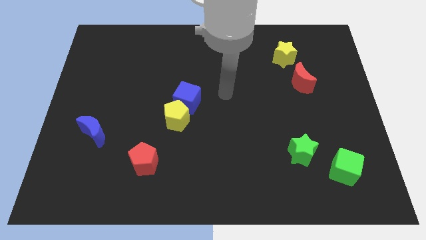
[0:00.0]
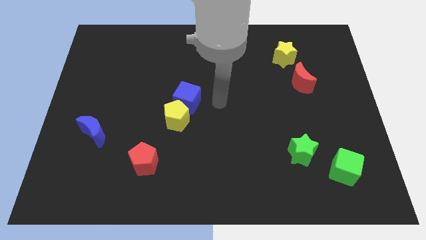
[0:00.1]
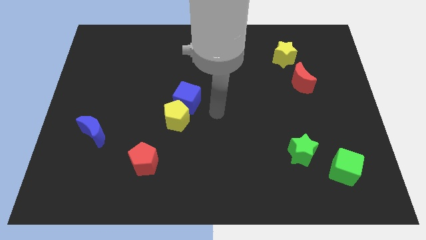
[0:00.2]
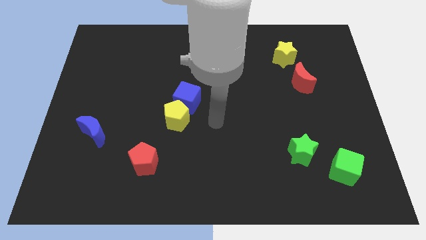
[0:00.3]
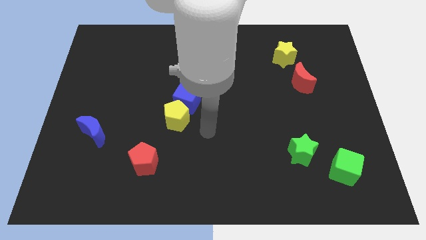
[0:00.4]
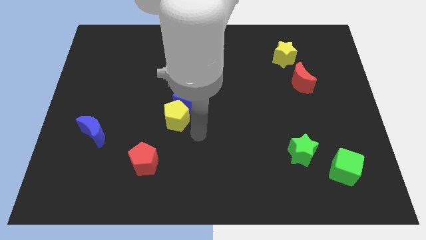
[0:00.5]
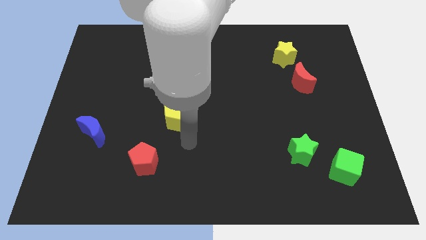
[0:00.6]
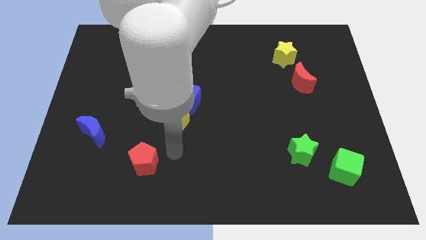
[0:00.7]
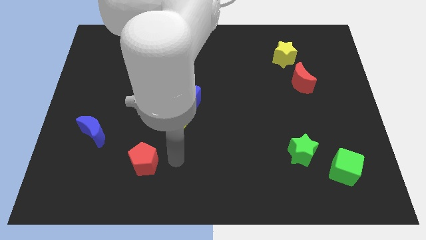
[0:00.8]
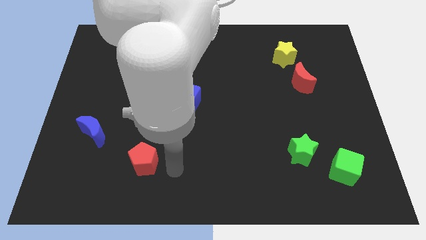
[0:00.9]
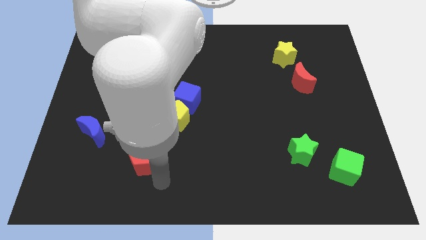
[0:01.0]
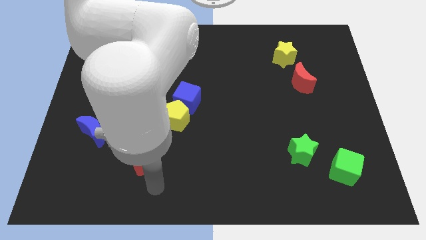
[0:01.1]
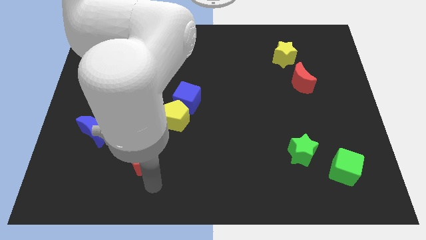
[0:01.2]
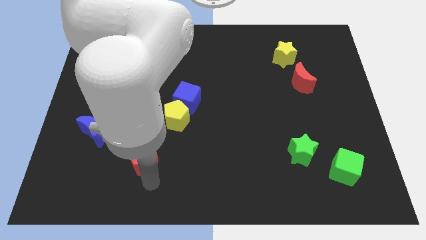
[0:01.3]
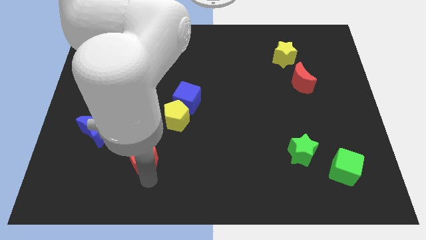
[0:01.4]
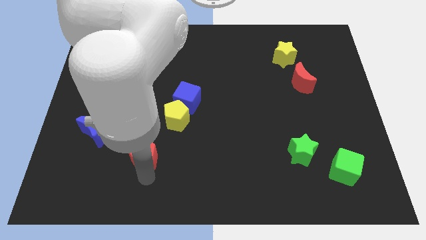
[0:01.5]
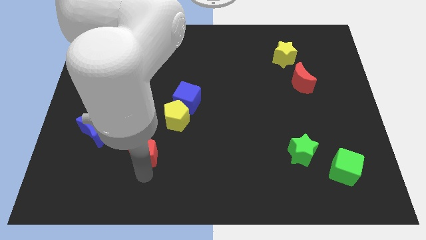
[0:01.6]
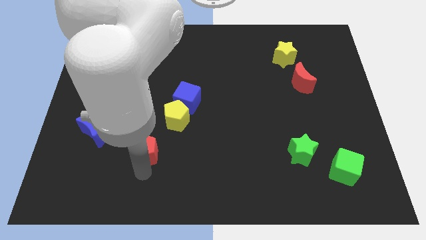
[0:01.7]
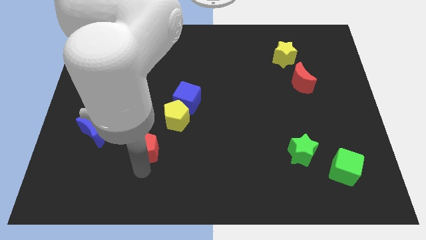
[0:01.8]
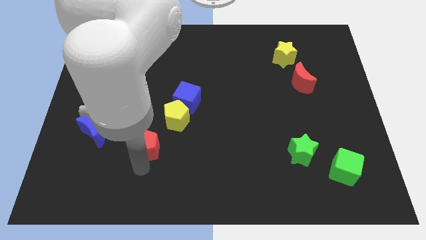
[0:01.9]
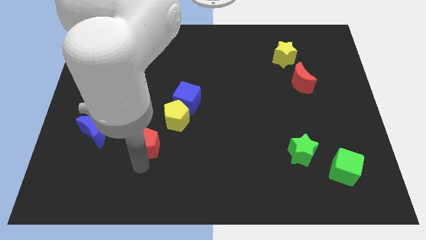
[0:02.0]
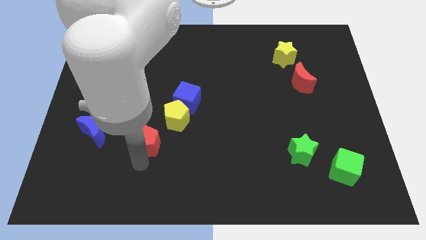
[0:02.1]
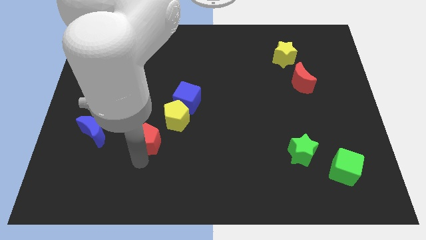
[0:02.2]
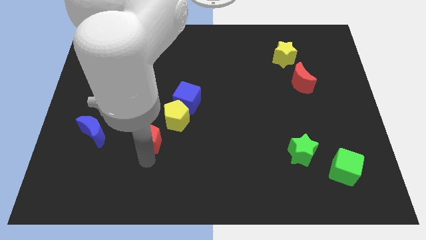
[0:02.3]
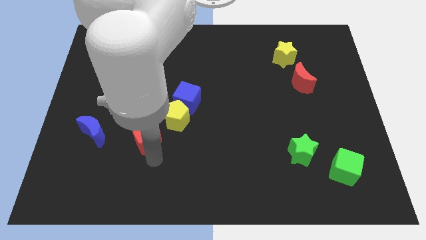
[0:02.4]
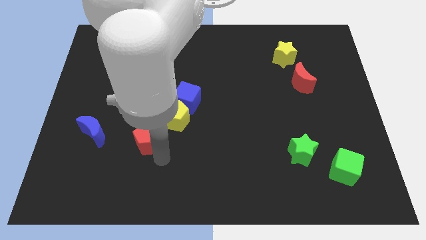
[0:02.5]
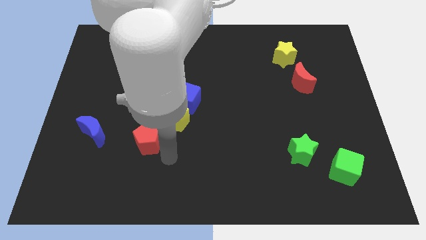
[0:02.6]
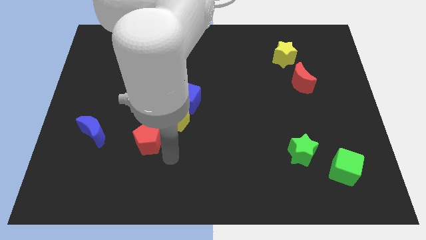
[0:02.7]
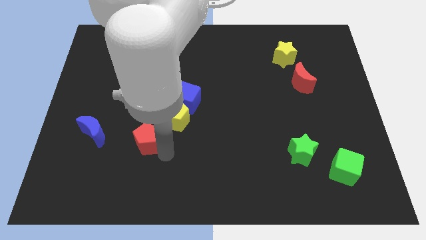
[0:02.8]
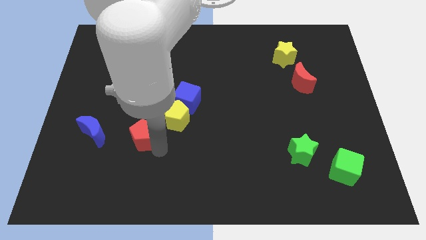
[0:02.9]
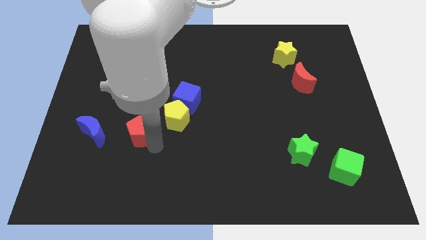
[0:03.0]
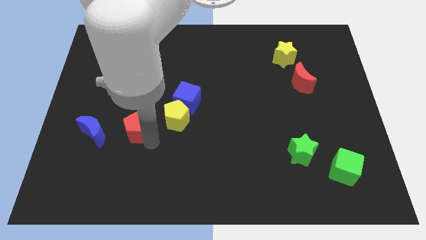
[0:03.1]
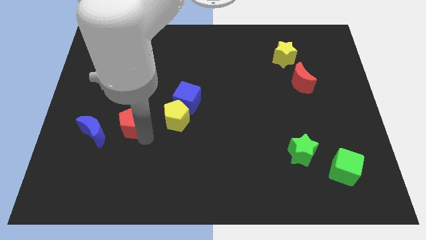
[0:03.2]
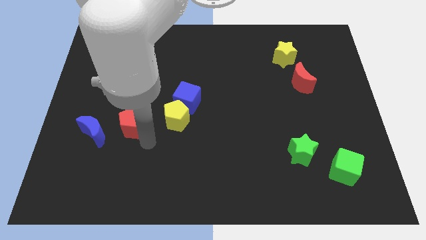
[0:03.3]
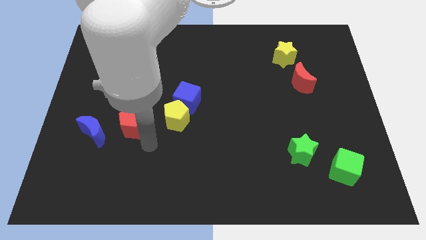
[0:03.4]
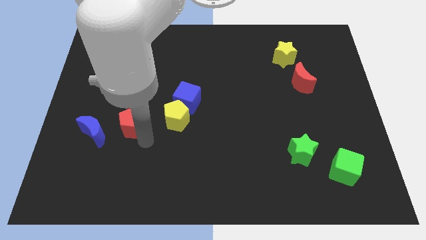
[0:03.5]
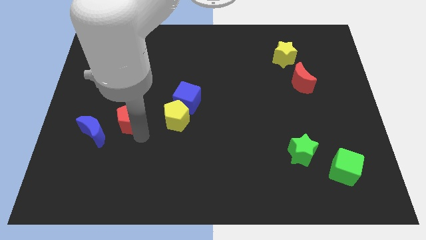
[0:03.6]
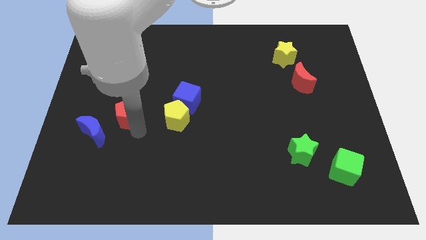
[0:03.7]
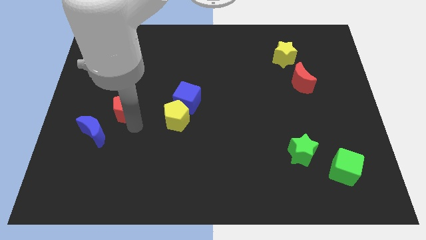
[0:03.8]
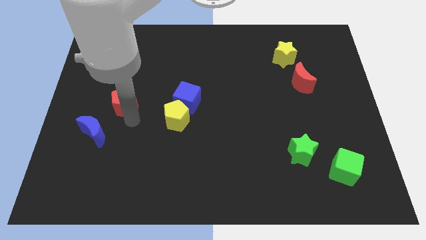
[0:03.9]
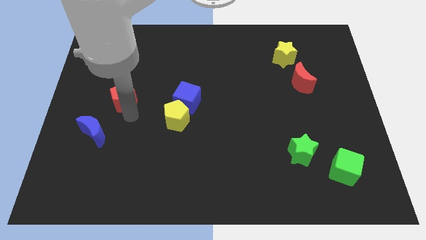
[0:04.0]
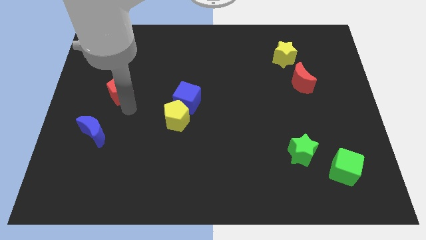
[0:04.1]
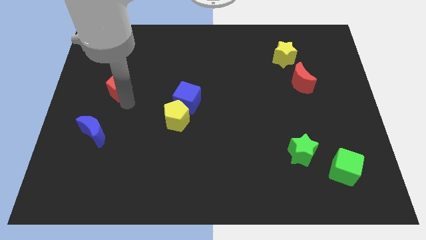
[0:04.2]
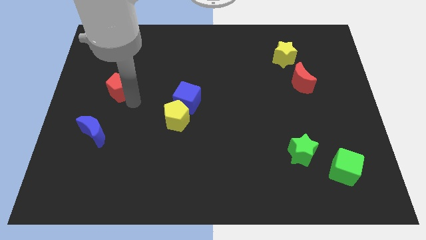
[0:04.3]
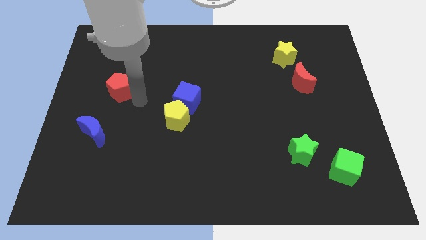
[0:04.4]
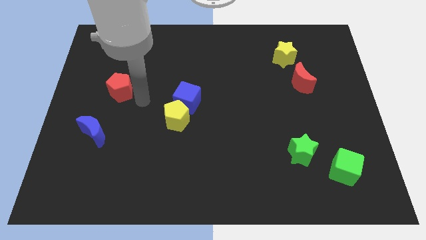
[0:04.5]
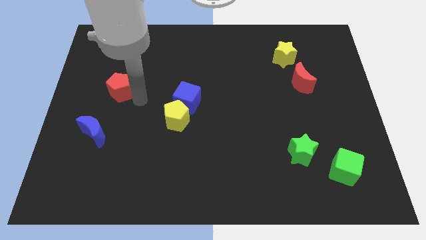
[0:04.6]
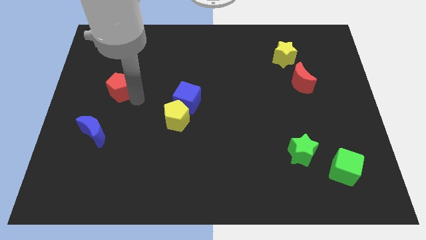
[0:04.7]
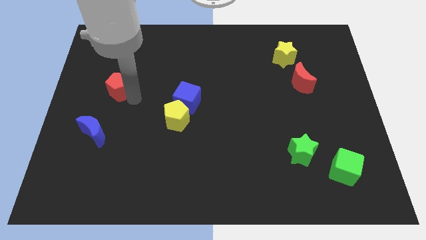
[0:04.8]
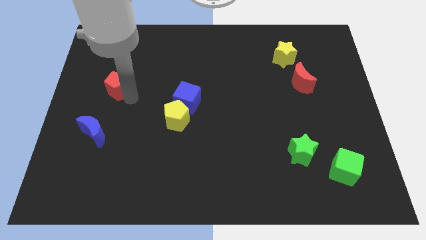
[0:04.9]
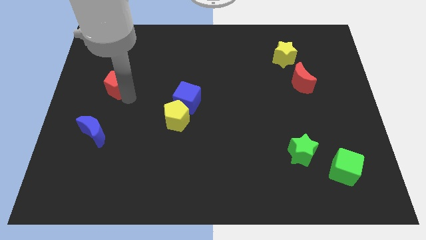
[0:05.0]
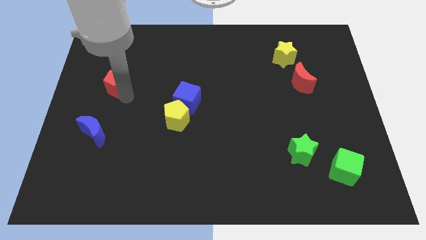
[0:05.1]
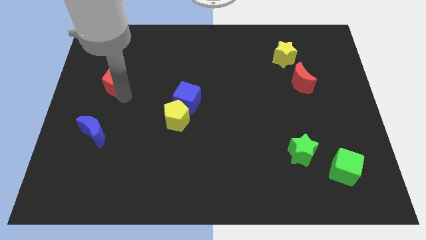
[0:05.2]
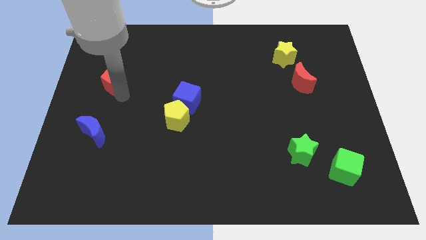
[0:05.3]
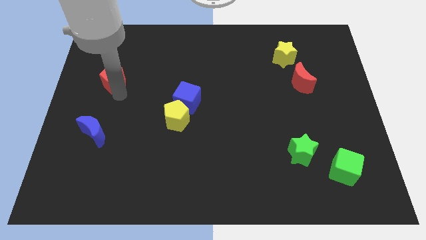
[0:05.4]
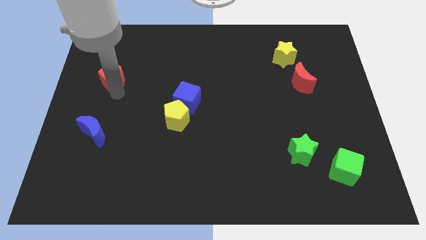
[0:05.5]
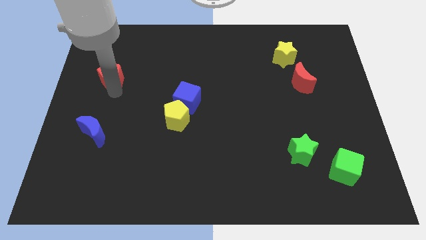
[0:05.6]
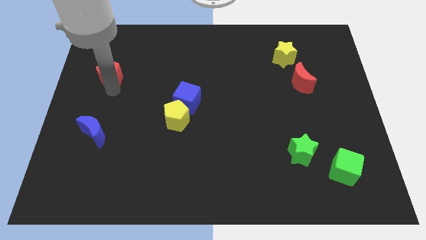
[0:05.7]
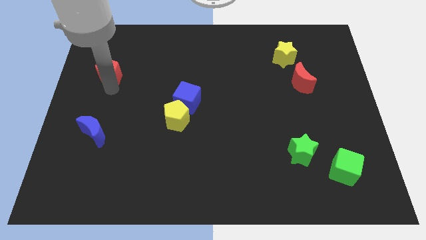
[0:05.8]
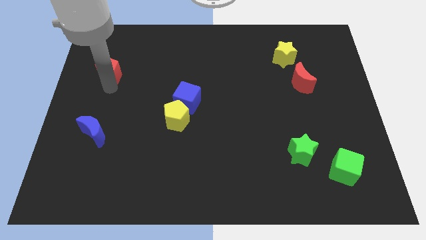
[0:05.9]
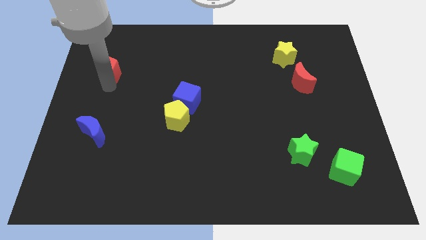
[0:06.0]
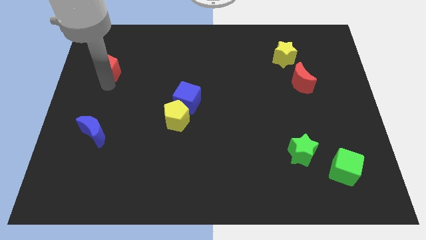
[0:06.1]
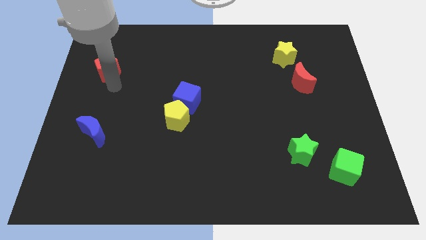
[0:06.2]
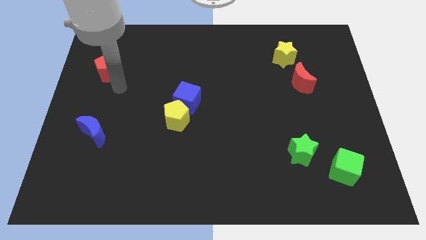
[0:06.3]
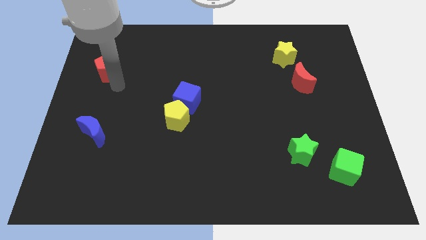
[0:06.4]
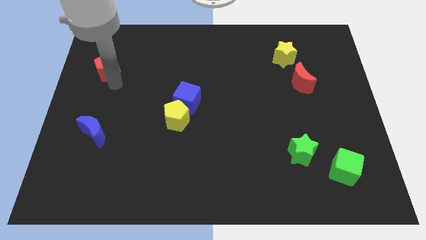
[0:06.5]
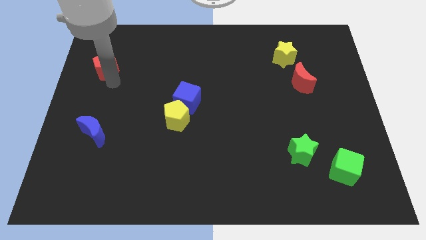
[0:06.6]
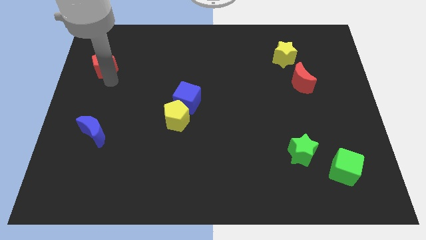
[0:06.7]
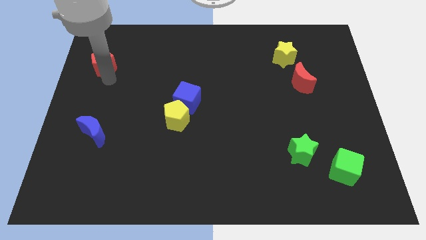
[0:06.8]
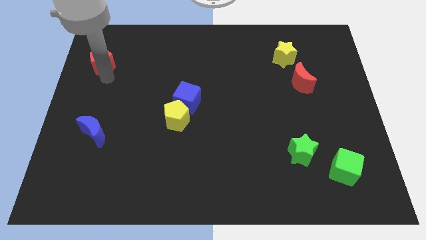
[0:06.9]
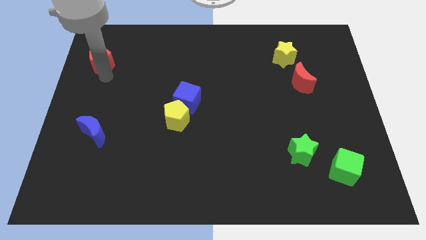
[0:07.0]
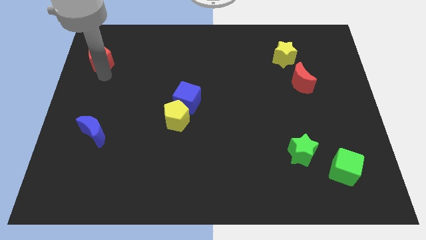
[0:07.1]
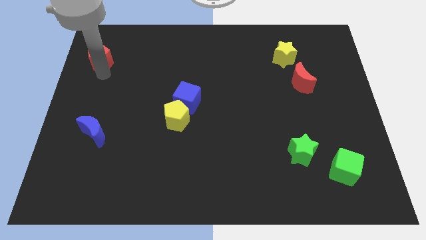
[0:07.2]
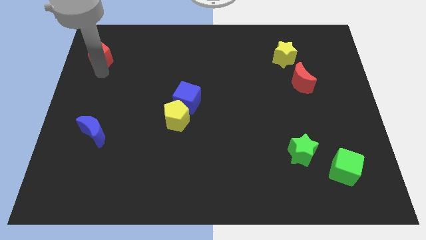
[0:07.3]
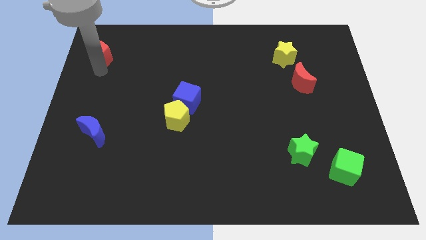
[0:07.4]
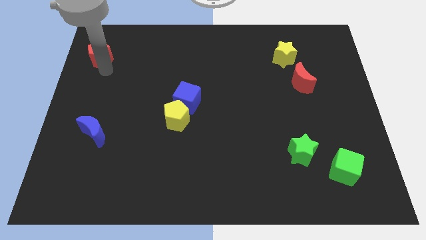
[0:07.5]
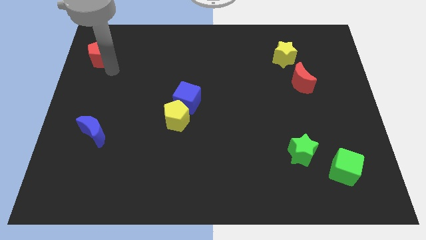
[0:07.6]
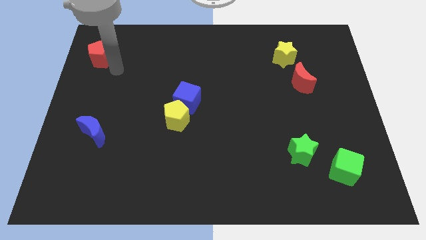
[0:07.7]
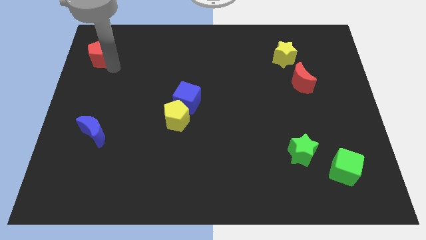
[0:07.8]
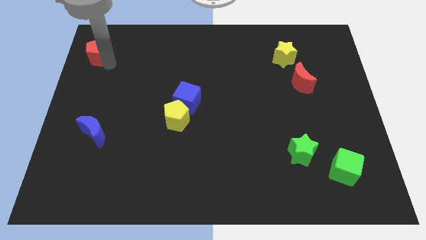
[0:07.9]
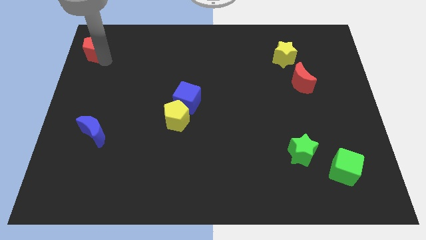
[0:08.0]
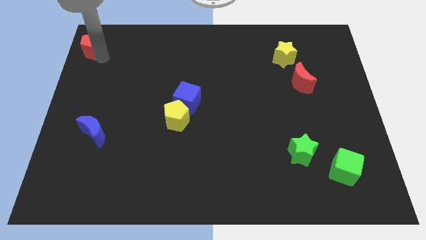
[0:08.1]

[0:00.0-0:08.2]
move the red pentagon to the top left
